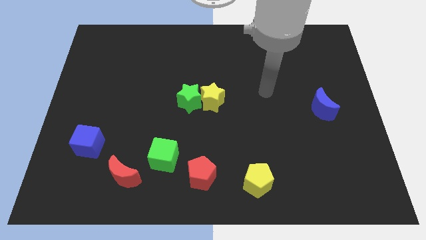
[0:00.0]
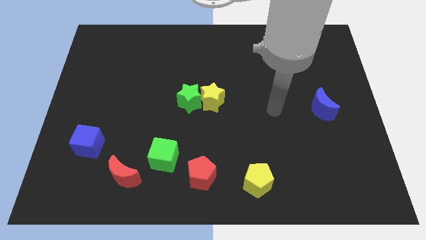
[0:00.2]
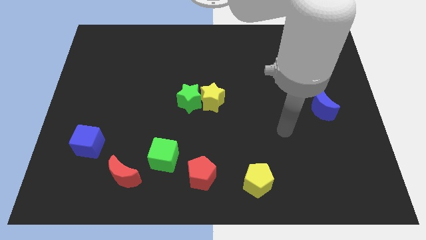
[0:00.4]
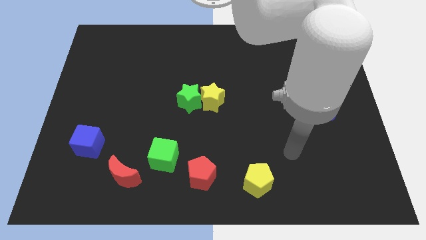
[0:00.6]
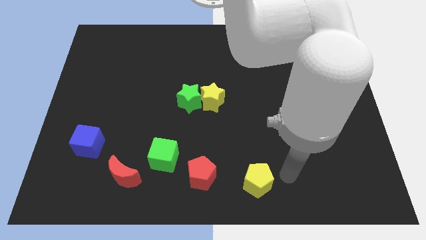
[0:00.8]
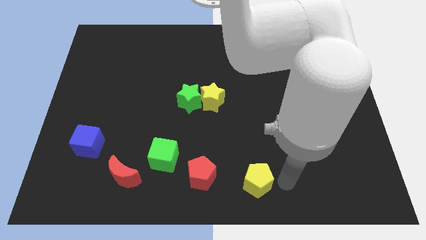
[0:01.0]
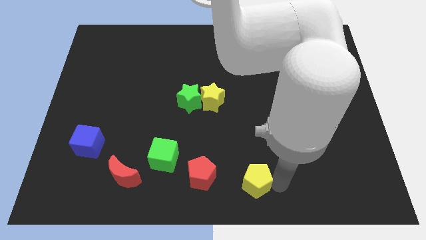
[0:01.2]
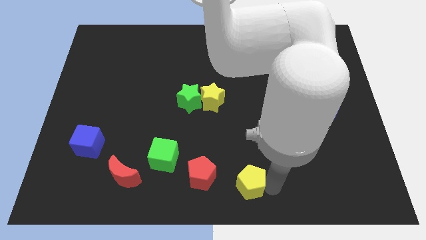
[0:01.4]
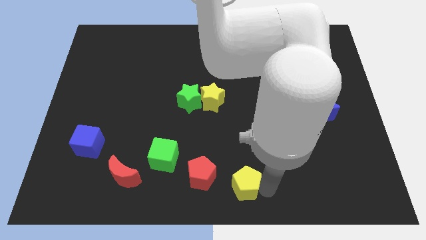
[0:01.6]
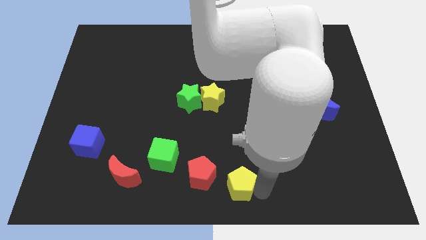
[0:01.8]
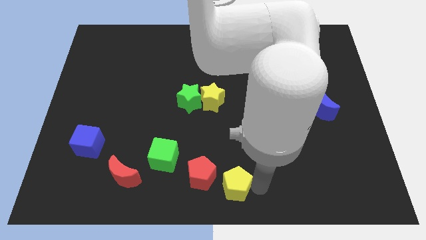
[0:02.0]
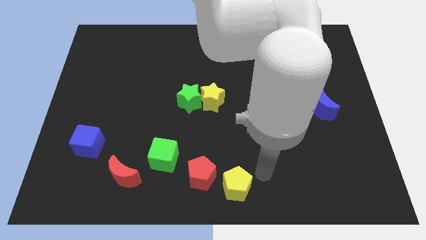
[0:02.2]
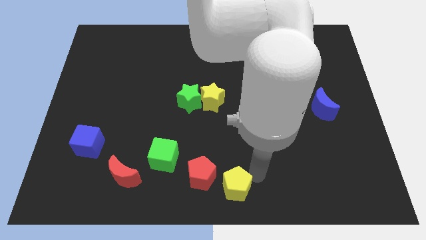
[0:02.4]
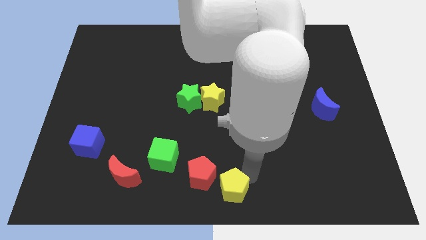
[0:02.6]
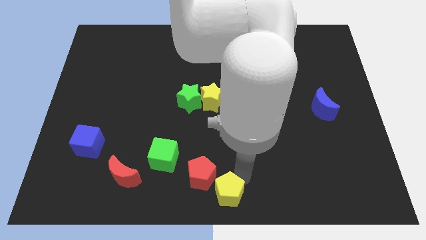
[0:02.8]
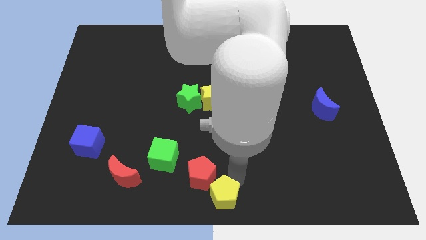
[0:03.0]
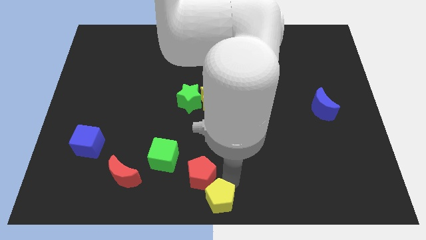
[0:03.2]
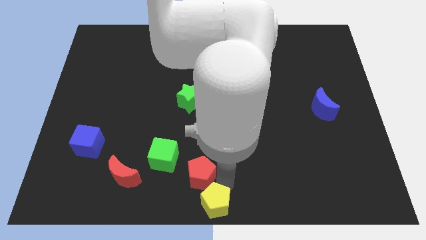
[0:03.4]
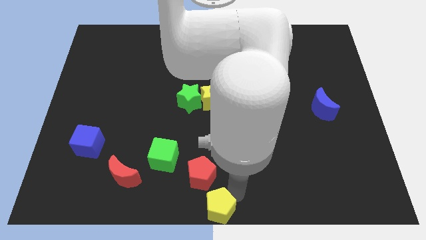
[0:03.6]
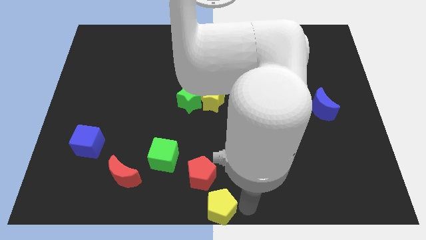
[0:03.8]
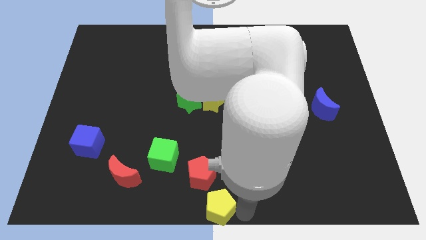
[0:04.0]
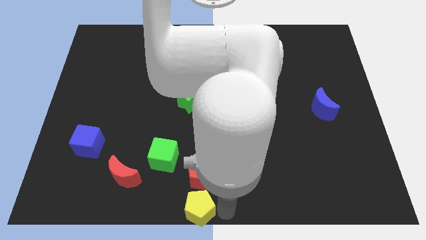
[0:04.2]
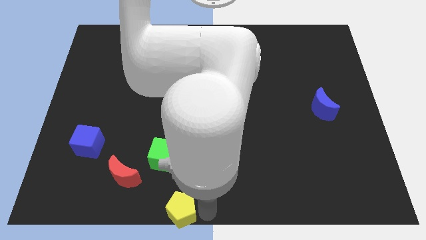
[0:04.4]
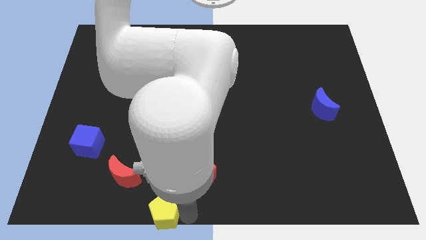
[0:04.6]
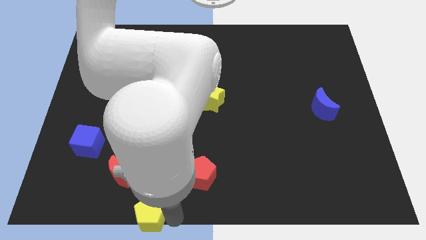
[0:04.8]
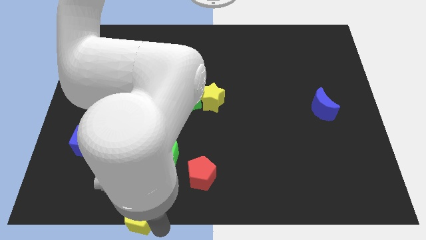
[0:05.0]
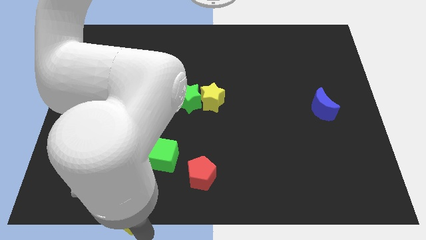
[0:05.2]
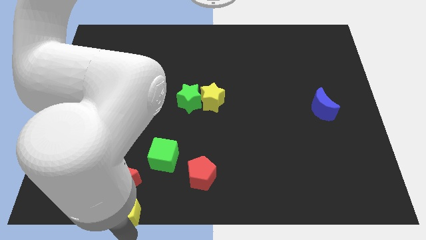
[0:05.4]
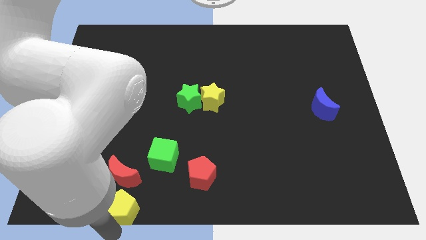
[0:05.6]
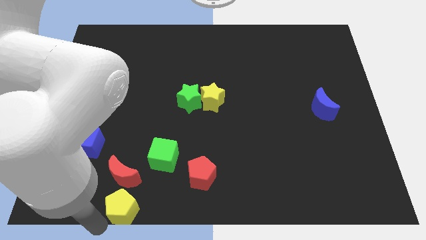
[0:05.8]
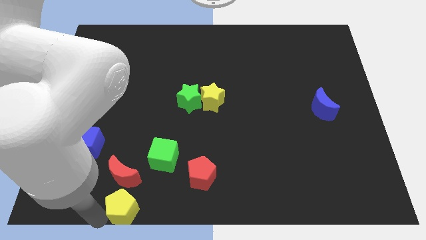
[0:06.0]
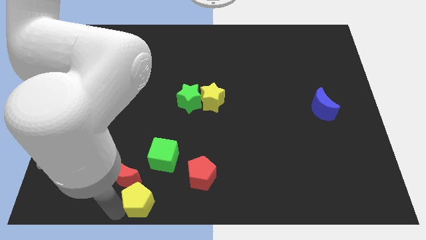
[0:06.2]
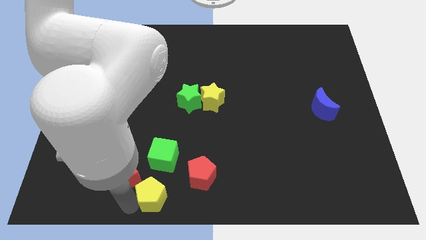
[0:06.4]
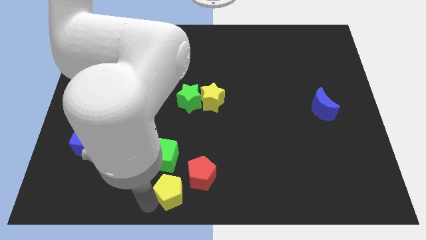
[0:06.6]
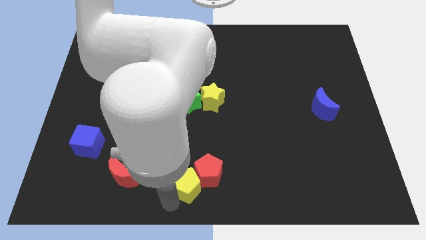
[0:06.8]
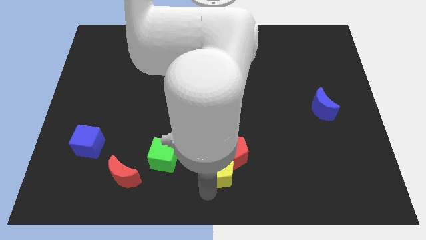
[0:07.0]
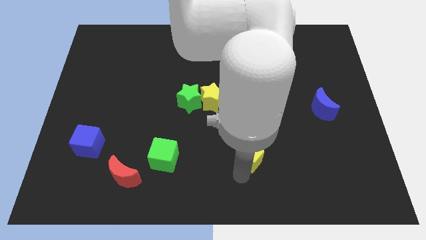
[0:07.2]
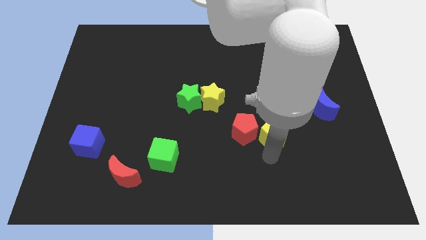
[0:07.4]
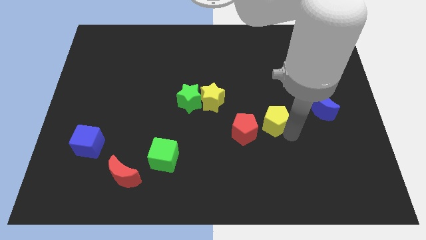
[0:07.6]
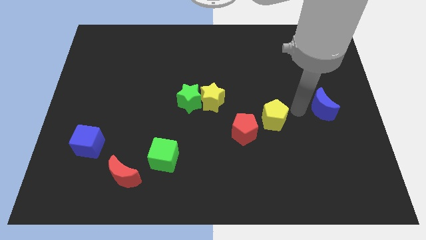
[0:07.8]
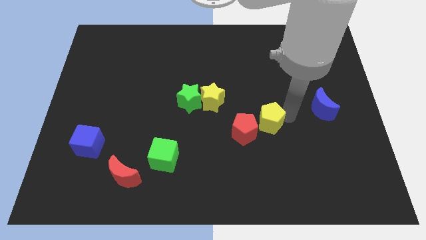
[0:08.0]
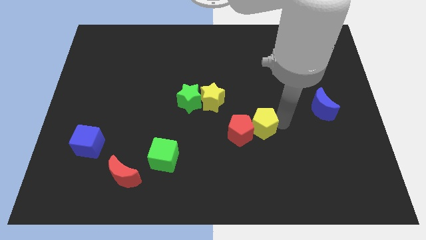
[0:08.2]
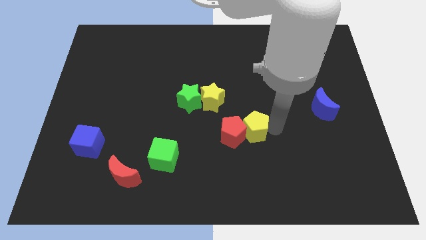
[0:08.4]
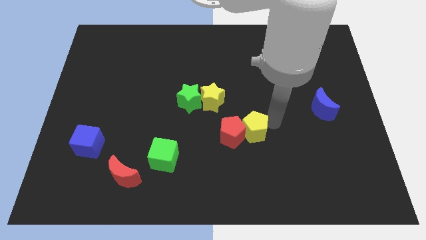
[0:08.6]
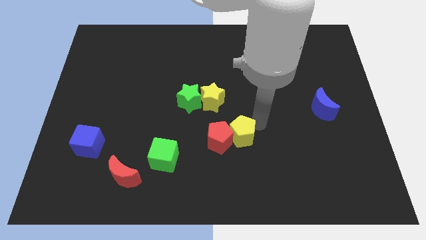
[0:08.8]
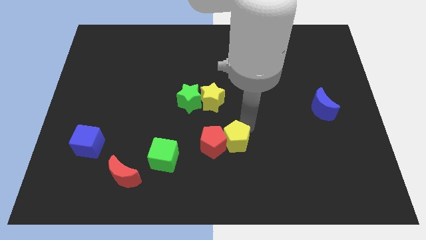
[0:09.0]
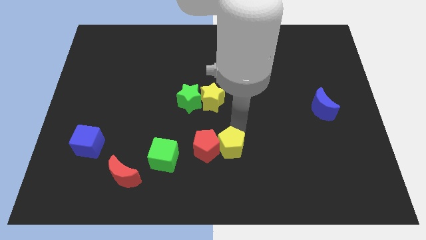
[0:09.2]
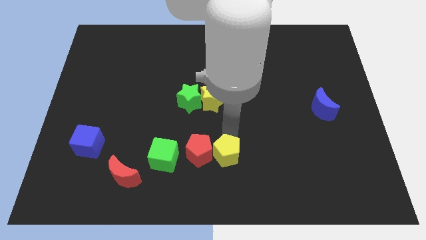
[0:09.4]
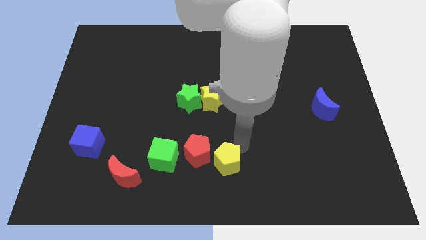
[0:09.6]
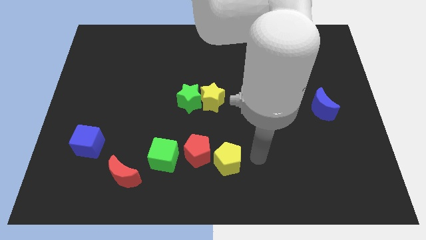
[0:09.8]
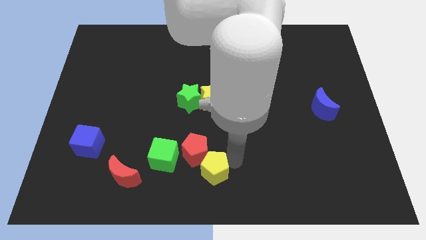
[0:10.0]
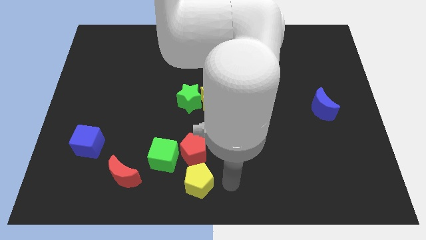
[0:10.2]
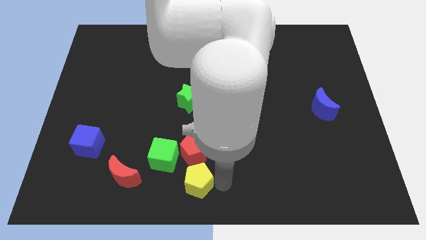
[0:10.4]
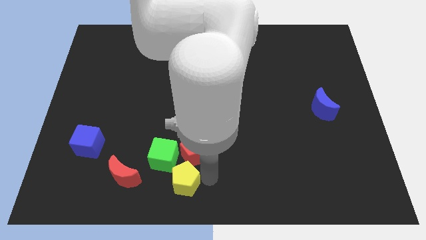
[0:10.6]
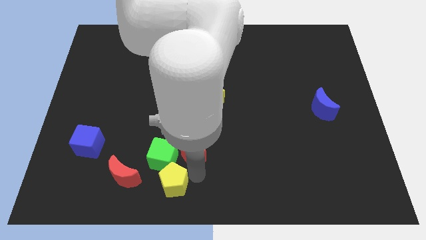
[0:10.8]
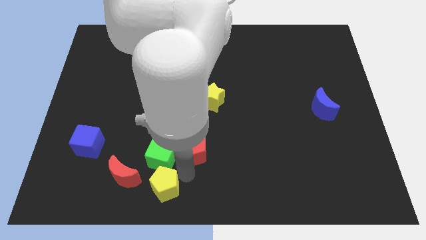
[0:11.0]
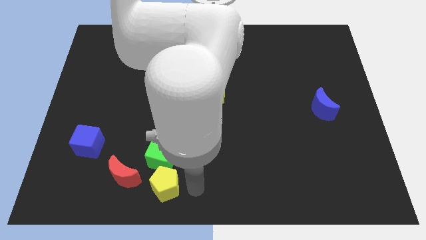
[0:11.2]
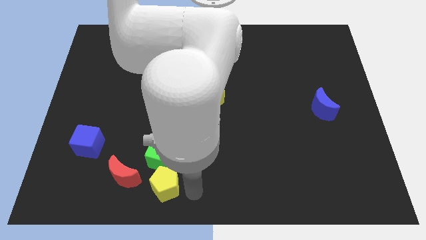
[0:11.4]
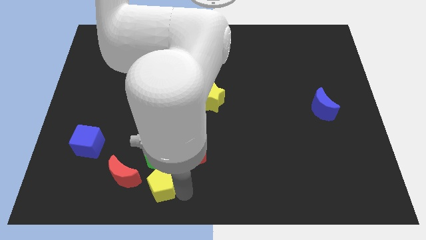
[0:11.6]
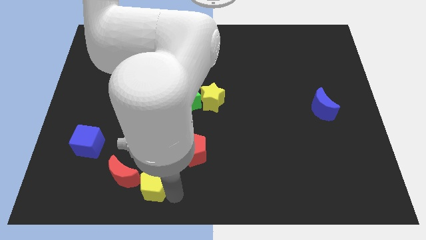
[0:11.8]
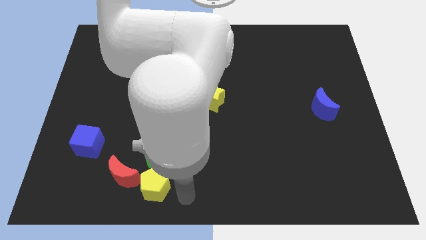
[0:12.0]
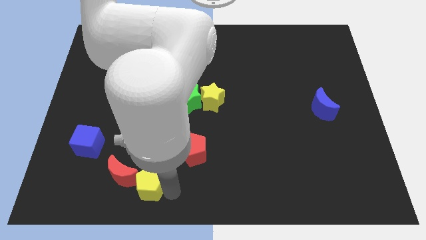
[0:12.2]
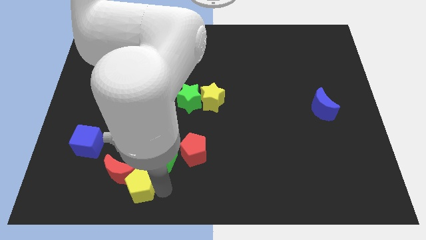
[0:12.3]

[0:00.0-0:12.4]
slide the yellow pentagon next to the red moon

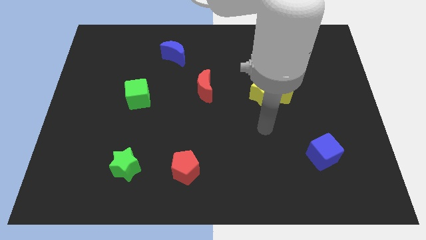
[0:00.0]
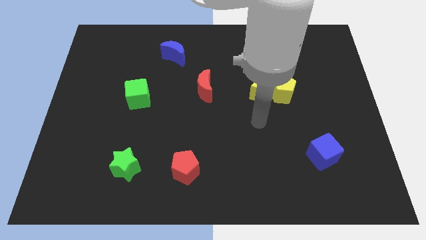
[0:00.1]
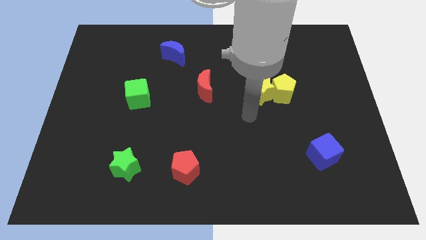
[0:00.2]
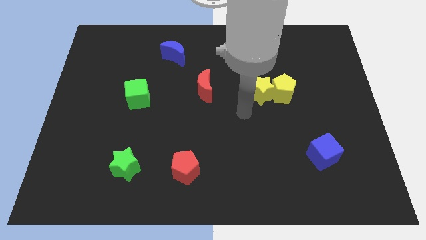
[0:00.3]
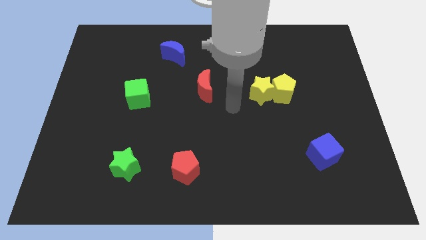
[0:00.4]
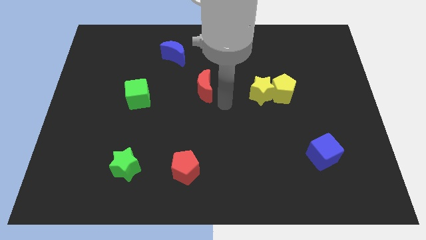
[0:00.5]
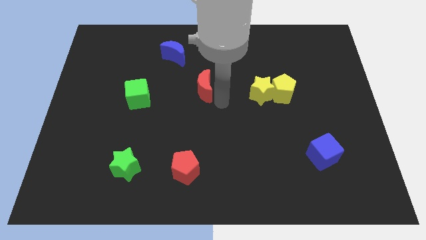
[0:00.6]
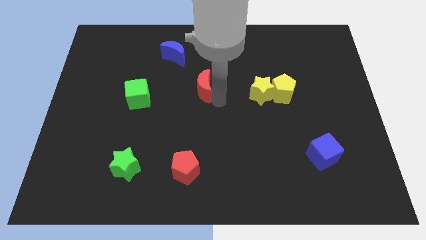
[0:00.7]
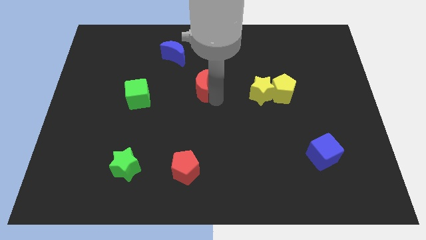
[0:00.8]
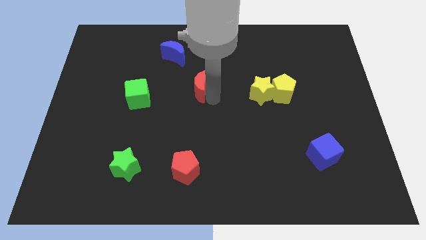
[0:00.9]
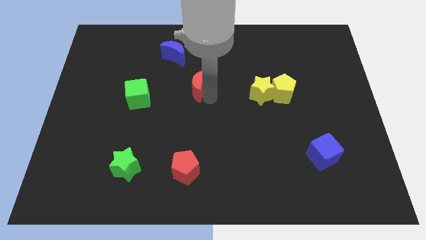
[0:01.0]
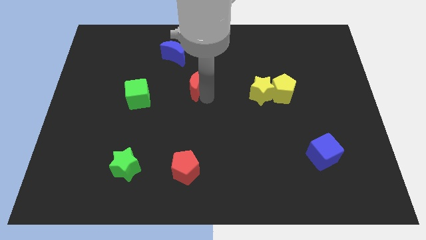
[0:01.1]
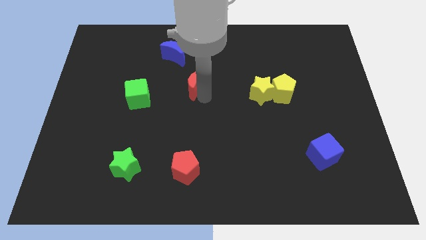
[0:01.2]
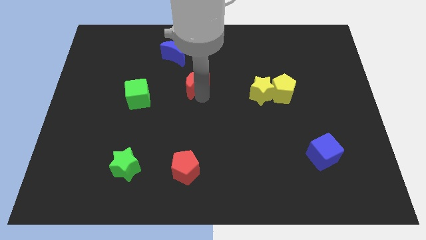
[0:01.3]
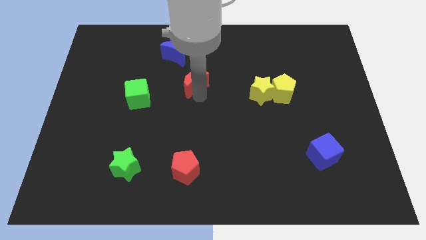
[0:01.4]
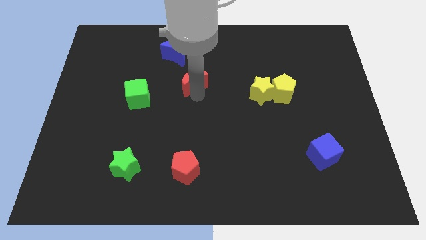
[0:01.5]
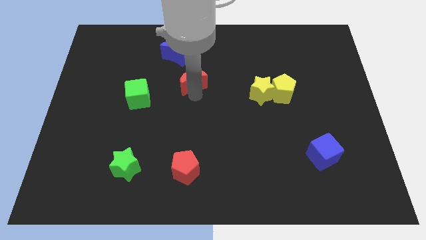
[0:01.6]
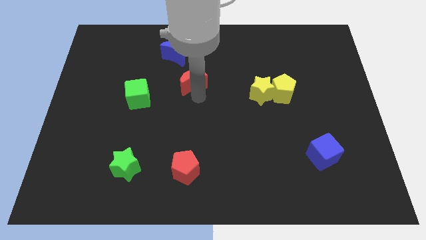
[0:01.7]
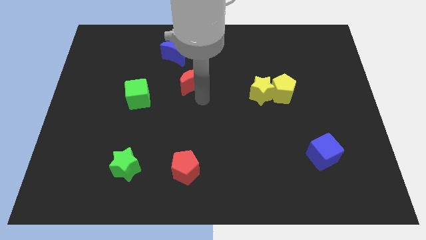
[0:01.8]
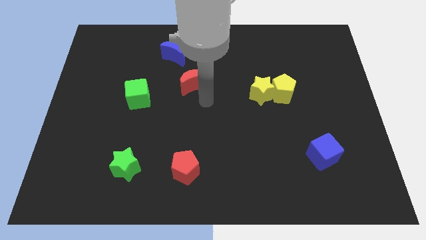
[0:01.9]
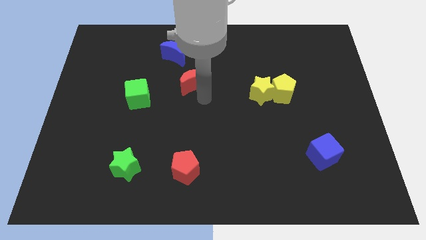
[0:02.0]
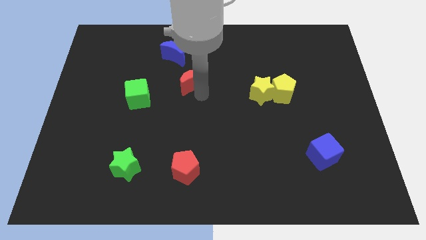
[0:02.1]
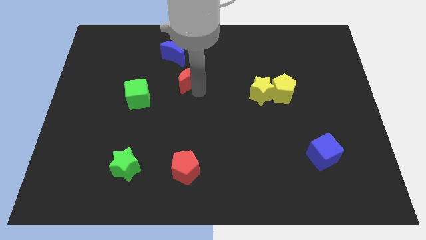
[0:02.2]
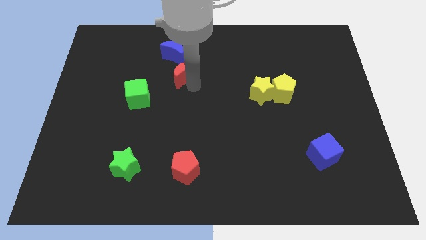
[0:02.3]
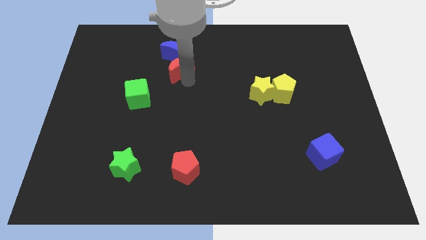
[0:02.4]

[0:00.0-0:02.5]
put the red moon next to the blue moon
